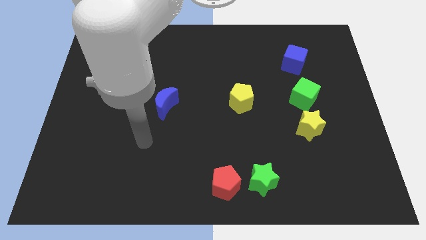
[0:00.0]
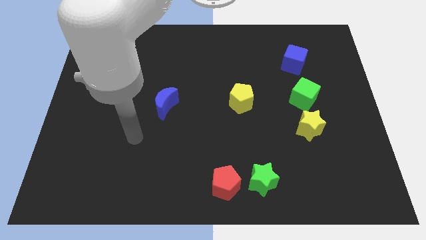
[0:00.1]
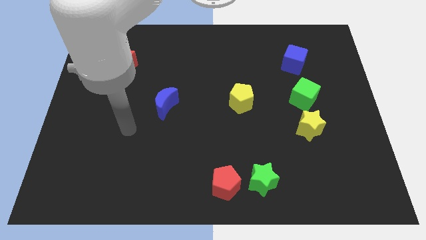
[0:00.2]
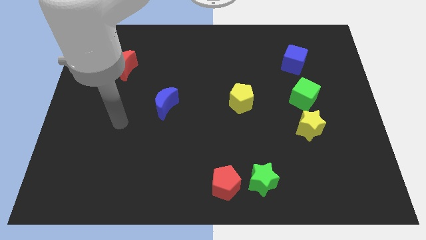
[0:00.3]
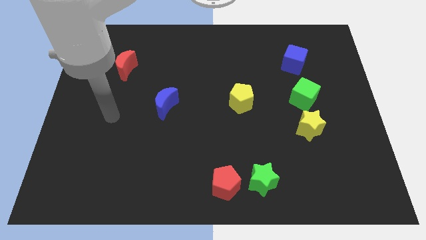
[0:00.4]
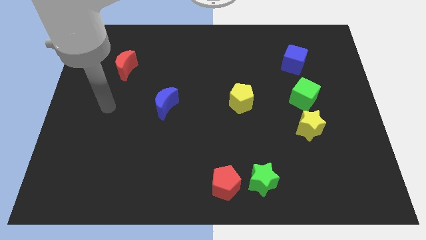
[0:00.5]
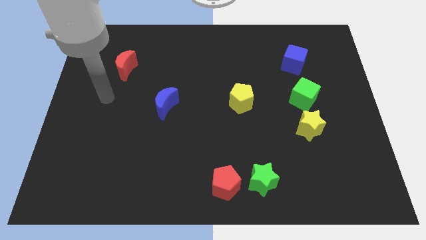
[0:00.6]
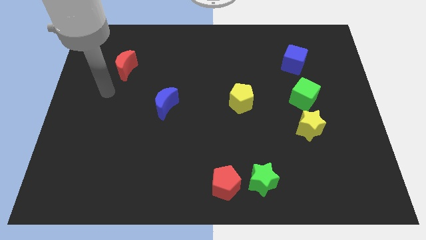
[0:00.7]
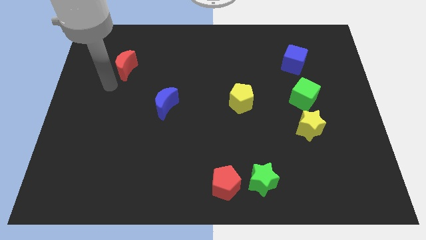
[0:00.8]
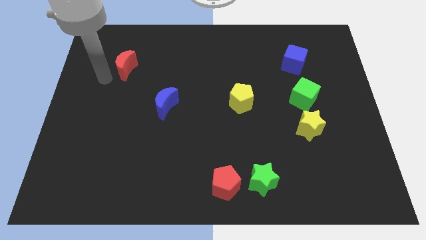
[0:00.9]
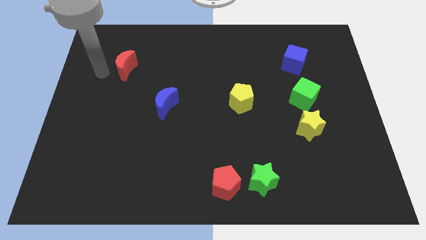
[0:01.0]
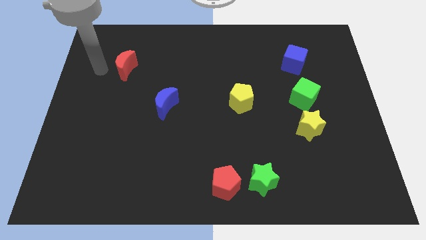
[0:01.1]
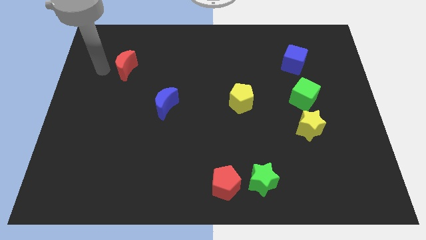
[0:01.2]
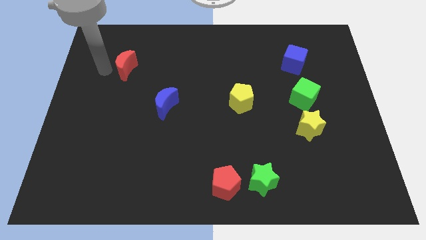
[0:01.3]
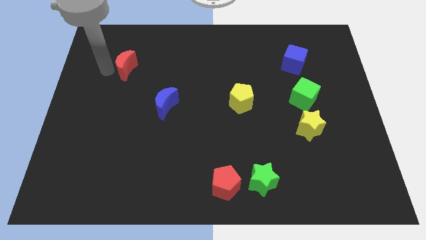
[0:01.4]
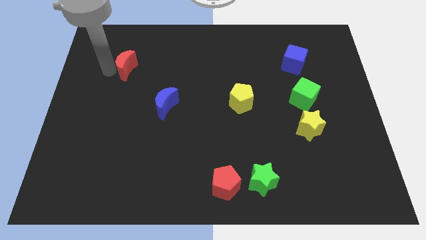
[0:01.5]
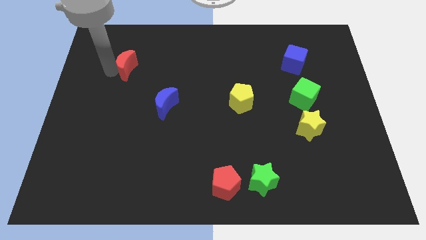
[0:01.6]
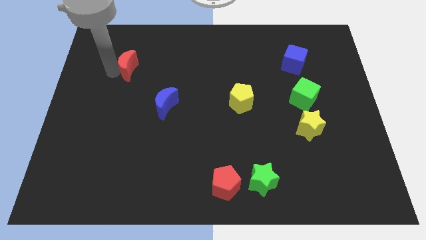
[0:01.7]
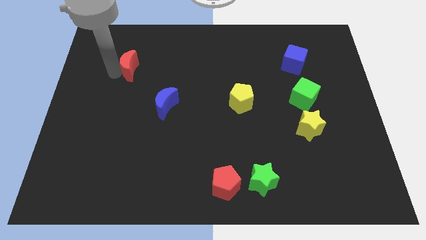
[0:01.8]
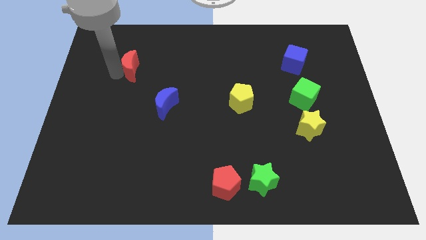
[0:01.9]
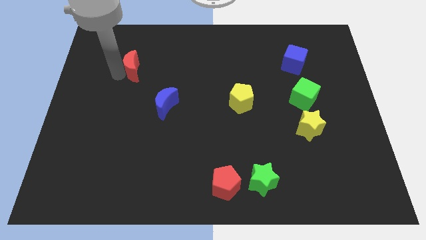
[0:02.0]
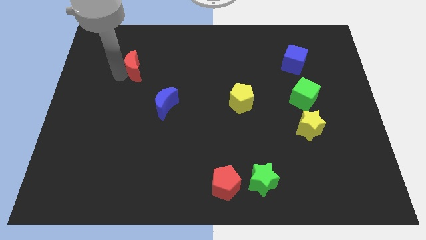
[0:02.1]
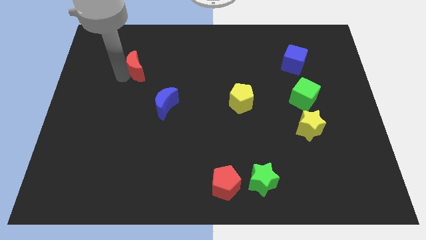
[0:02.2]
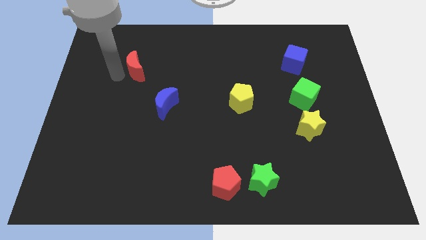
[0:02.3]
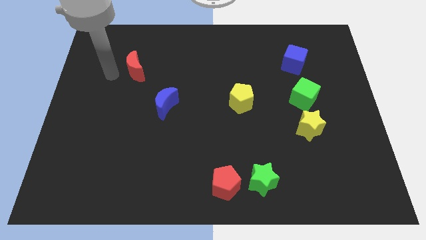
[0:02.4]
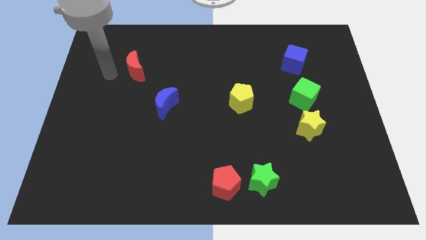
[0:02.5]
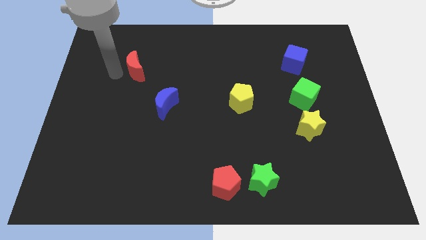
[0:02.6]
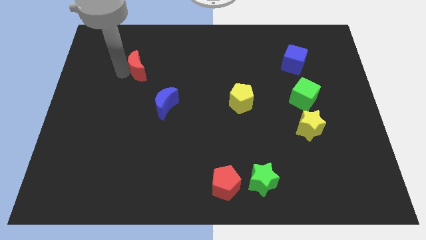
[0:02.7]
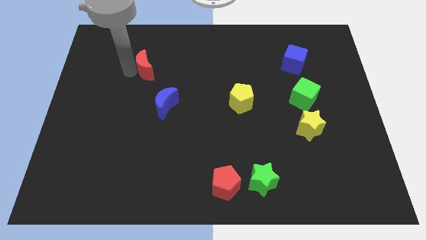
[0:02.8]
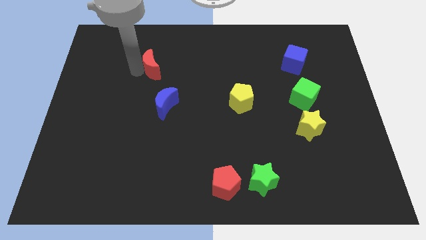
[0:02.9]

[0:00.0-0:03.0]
push the red moon a bit to the right

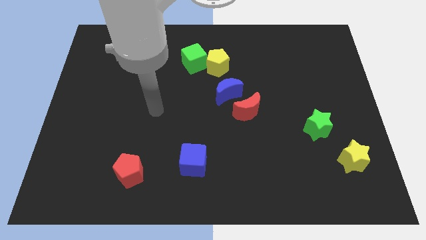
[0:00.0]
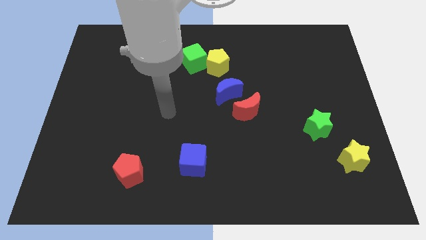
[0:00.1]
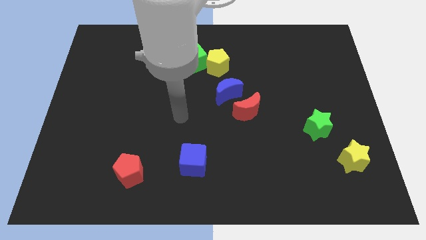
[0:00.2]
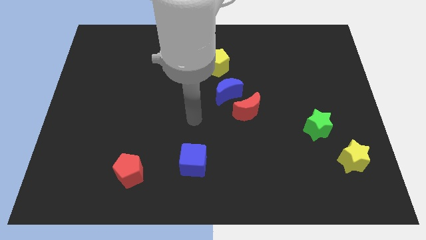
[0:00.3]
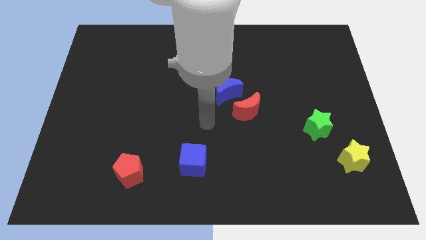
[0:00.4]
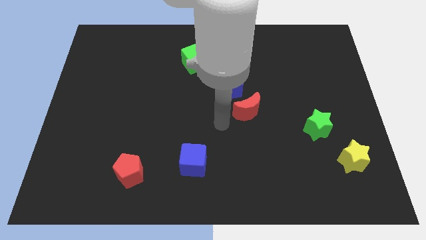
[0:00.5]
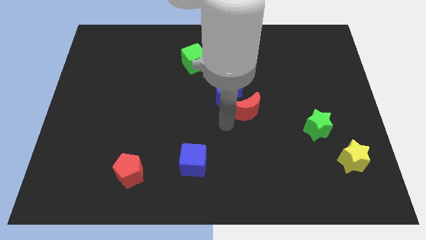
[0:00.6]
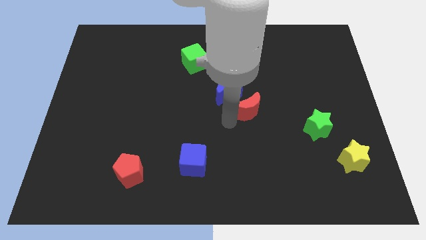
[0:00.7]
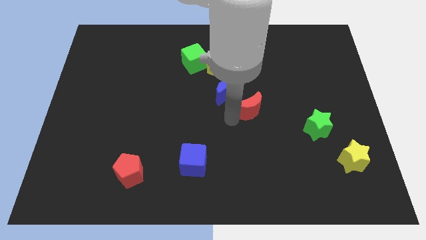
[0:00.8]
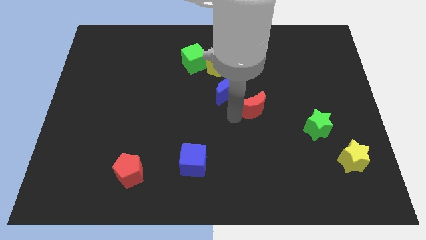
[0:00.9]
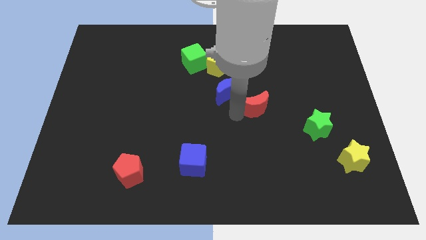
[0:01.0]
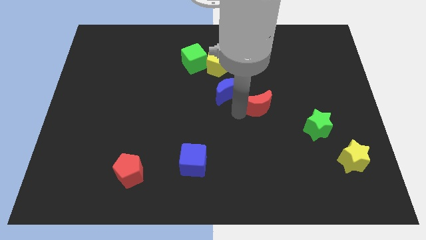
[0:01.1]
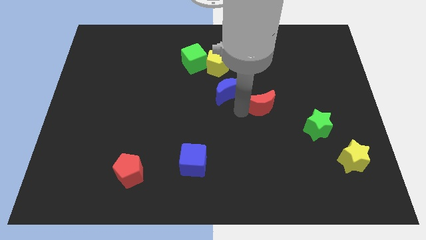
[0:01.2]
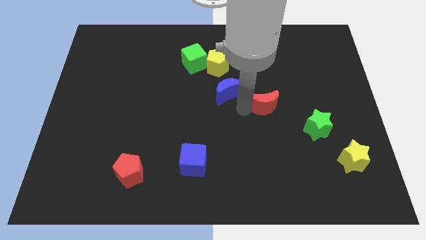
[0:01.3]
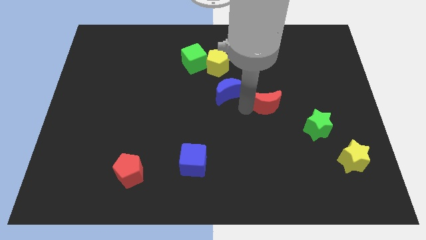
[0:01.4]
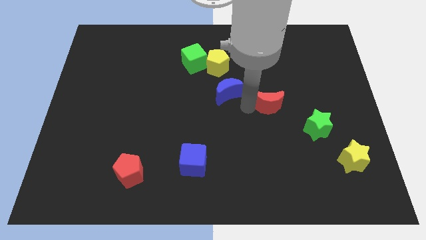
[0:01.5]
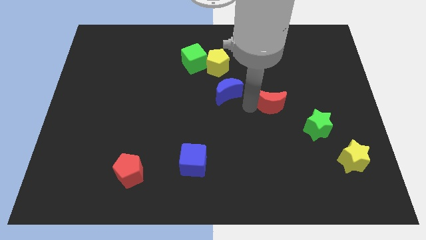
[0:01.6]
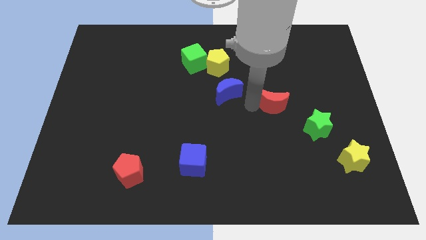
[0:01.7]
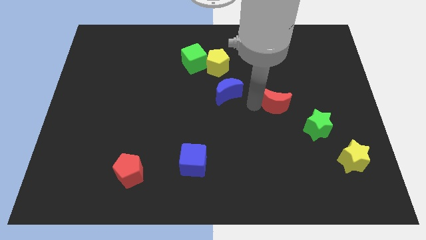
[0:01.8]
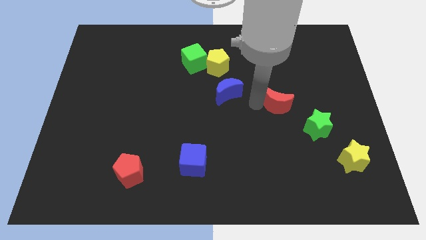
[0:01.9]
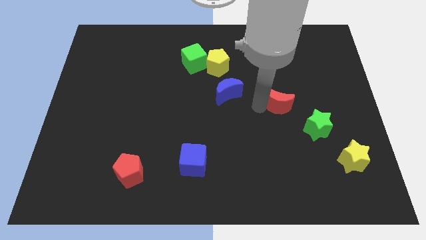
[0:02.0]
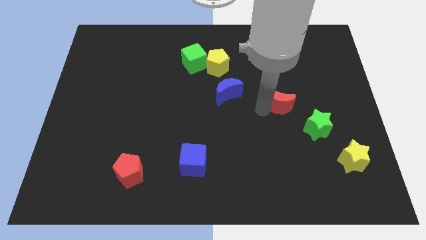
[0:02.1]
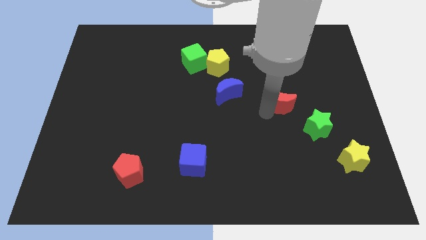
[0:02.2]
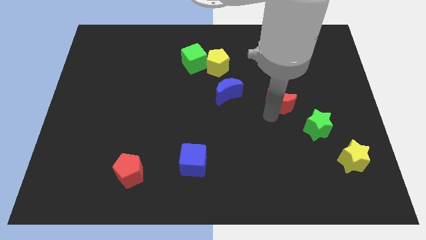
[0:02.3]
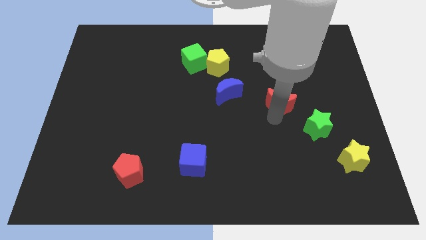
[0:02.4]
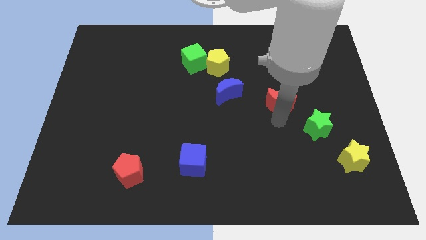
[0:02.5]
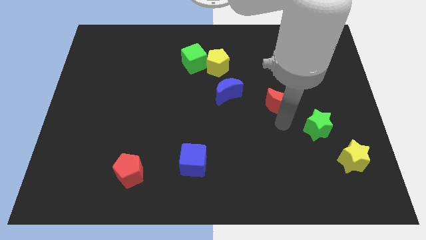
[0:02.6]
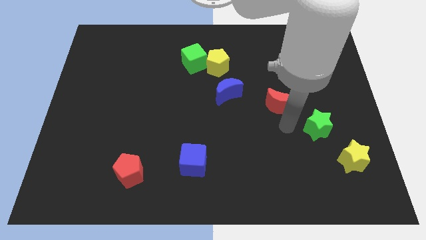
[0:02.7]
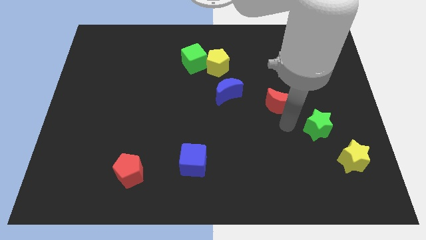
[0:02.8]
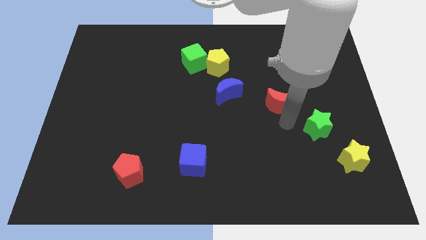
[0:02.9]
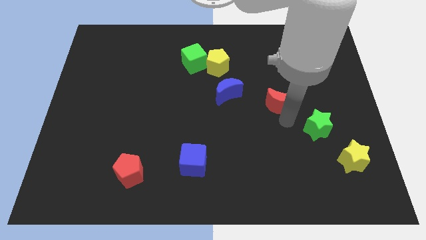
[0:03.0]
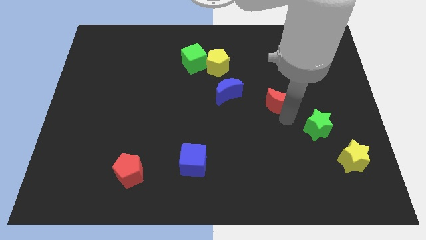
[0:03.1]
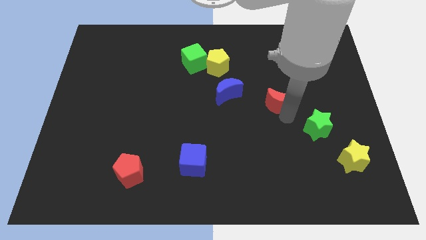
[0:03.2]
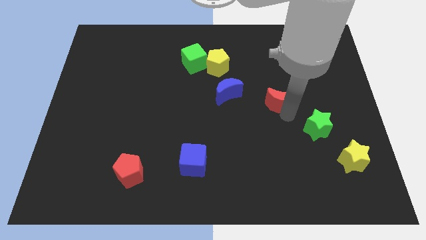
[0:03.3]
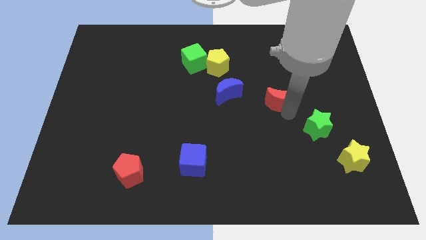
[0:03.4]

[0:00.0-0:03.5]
push the red moon a little bit upwards and then right

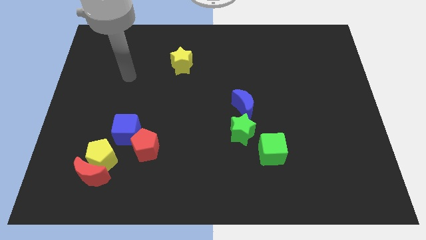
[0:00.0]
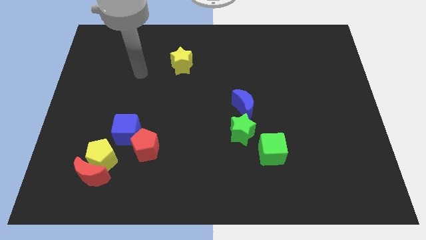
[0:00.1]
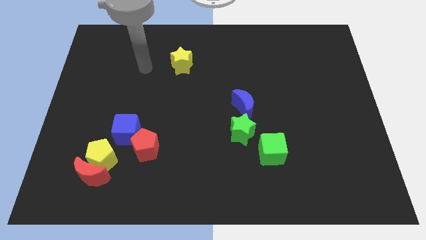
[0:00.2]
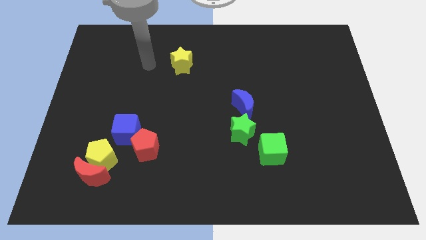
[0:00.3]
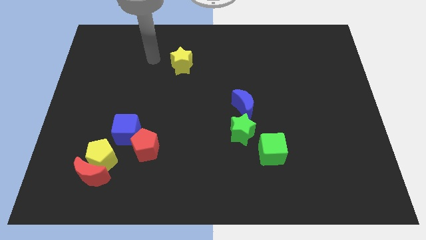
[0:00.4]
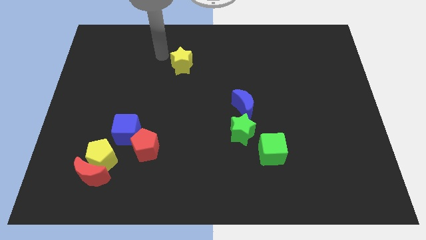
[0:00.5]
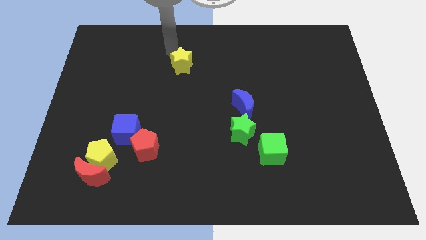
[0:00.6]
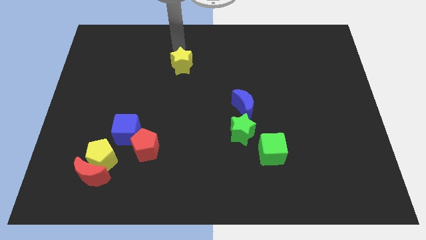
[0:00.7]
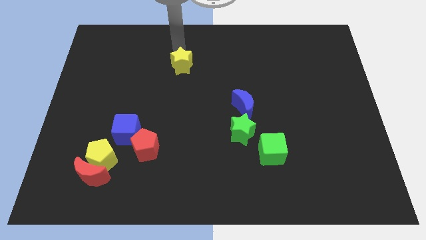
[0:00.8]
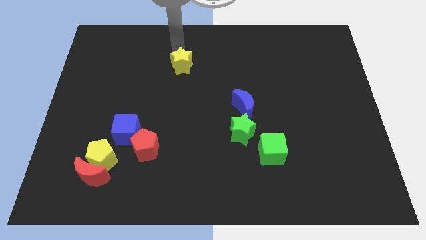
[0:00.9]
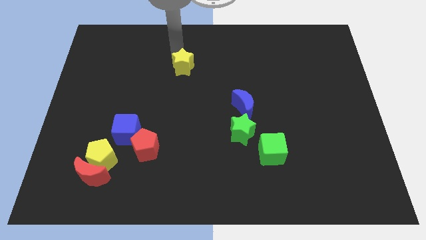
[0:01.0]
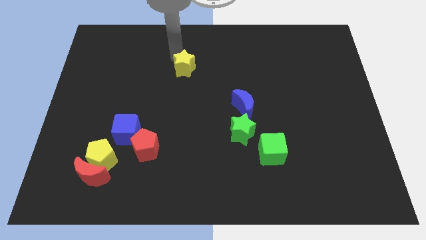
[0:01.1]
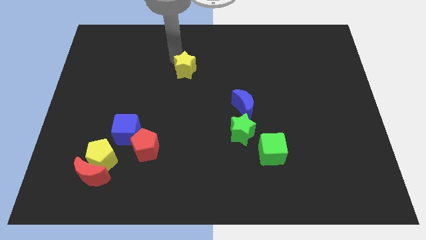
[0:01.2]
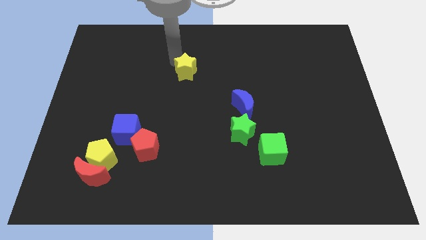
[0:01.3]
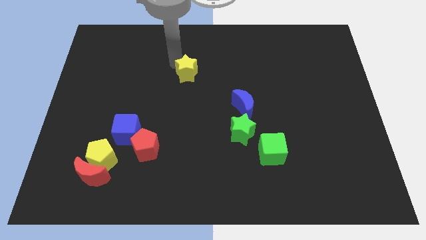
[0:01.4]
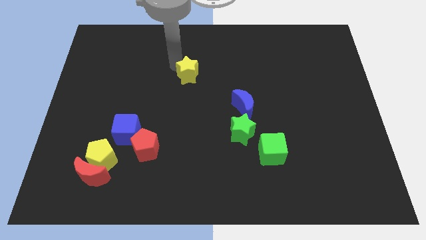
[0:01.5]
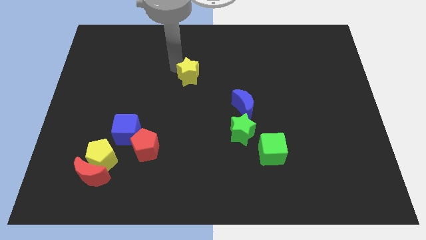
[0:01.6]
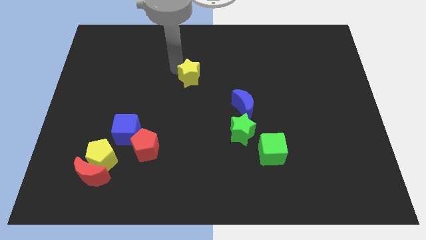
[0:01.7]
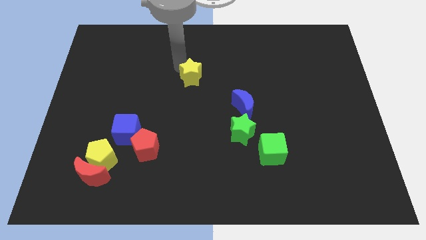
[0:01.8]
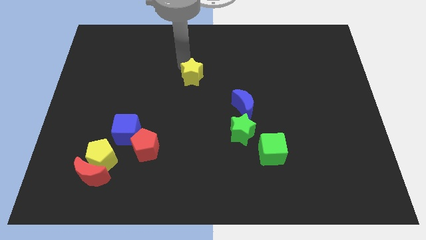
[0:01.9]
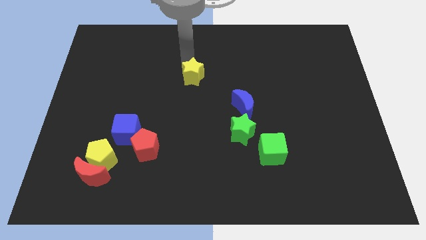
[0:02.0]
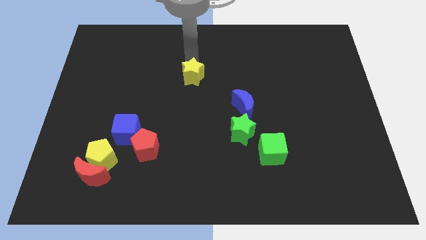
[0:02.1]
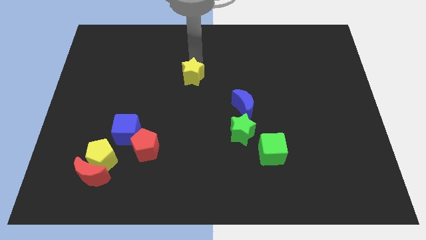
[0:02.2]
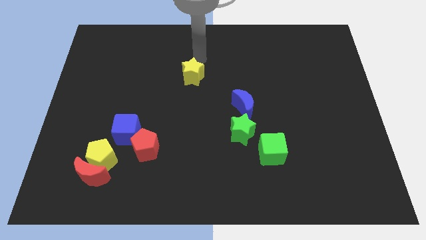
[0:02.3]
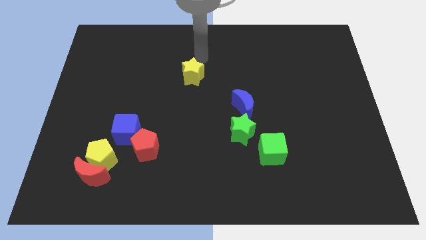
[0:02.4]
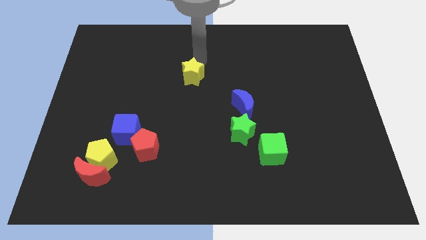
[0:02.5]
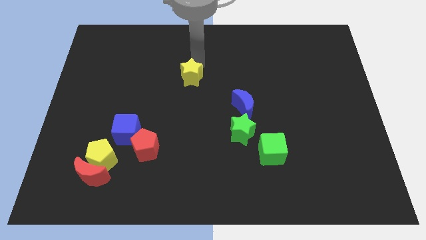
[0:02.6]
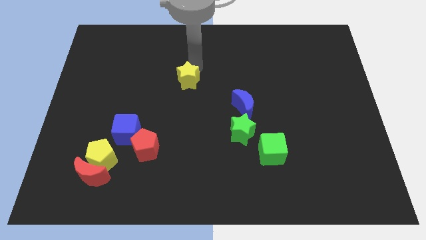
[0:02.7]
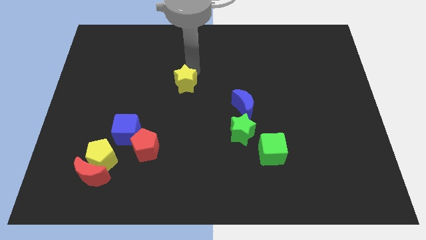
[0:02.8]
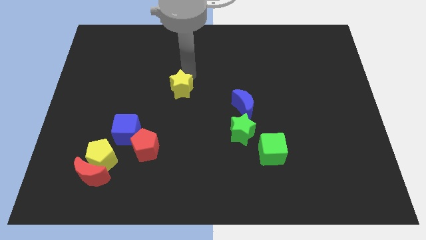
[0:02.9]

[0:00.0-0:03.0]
slightly move the yellow star downwards
